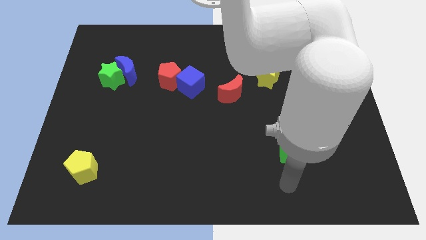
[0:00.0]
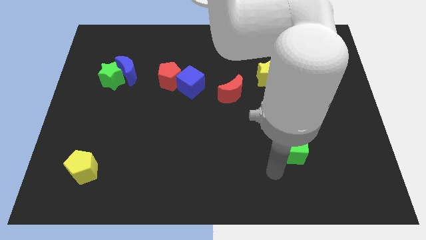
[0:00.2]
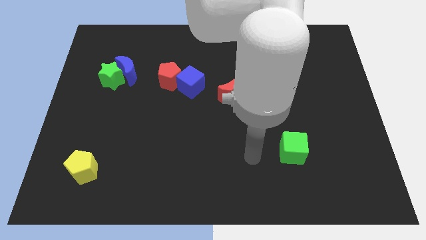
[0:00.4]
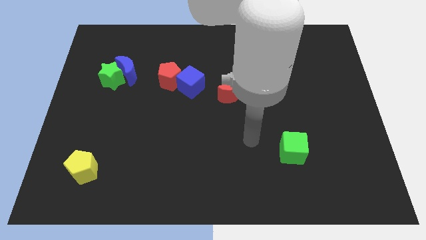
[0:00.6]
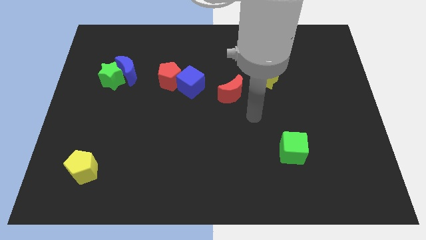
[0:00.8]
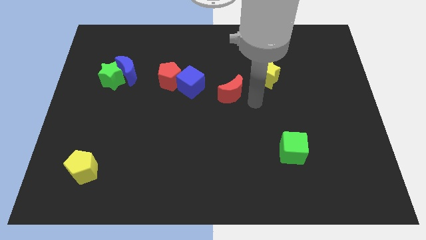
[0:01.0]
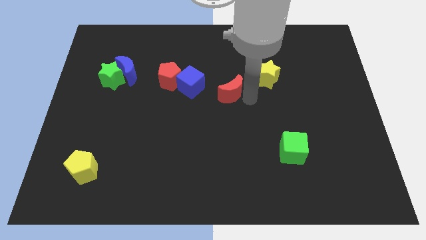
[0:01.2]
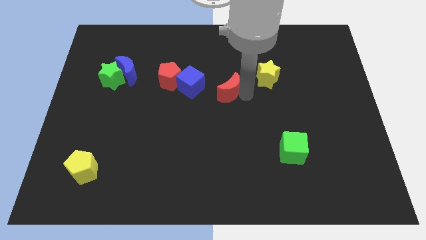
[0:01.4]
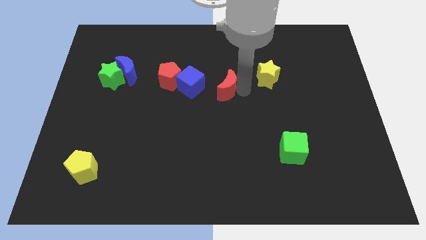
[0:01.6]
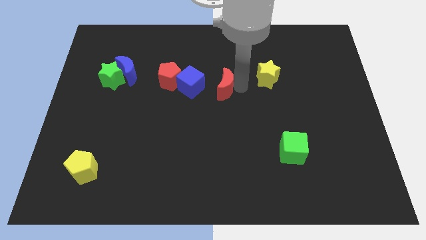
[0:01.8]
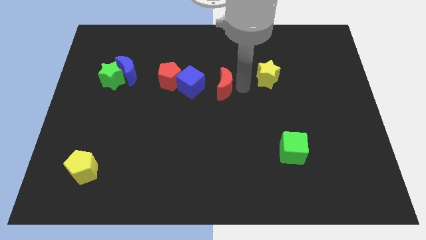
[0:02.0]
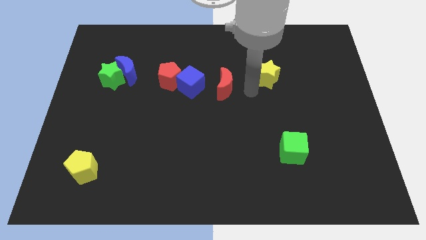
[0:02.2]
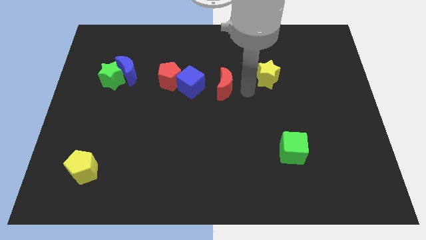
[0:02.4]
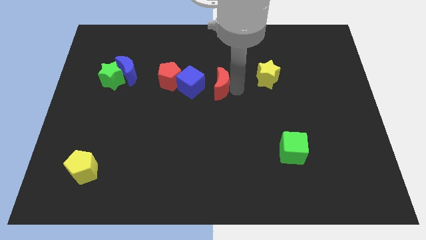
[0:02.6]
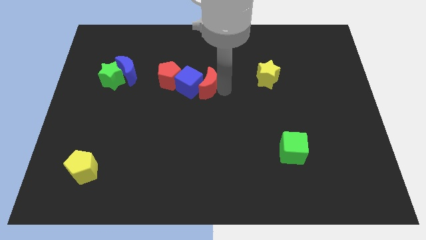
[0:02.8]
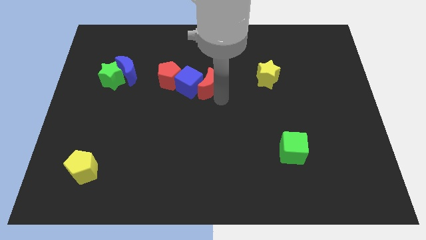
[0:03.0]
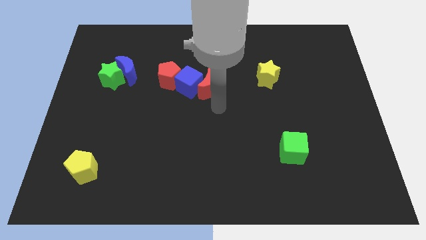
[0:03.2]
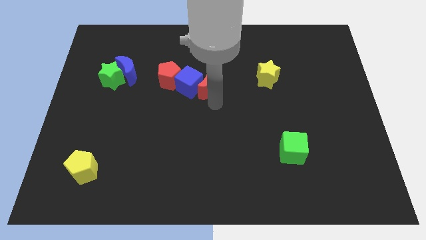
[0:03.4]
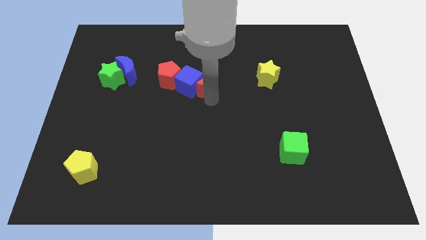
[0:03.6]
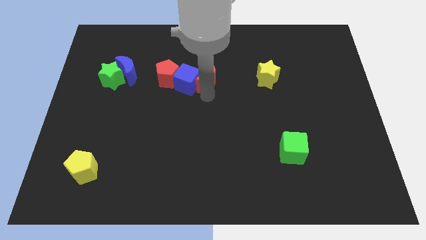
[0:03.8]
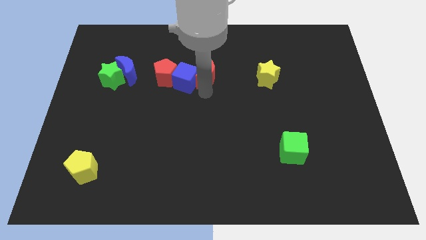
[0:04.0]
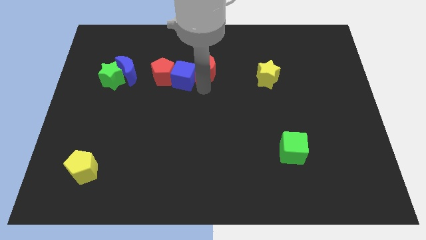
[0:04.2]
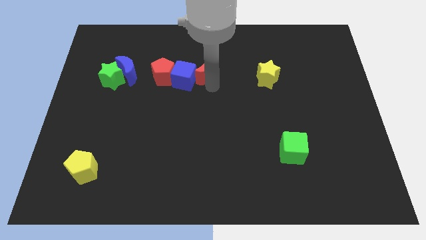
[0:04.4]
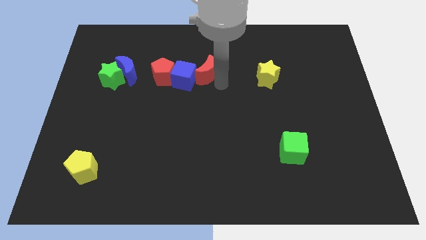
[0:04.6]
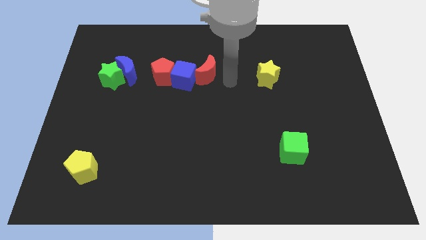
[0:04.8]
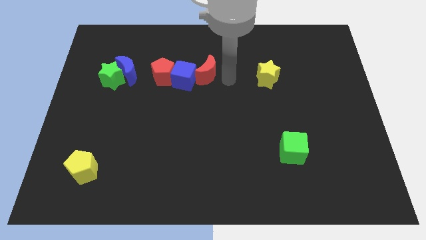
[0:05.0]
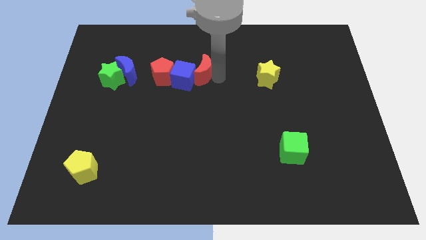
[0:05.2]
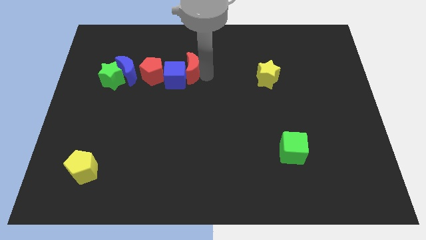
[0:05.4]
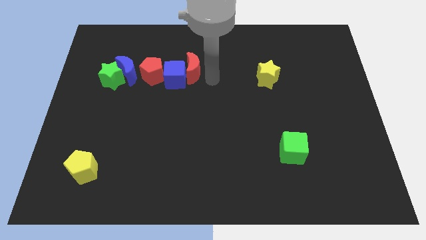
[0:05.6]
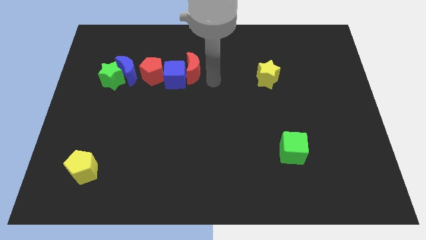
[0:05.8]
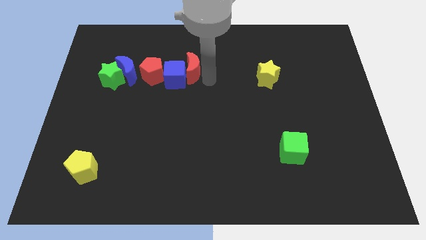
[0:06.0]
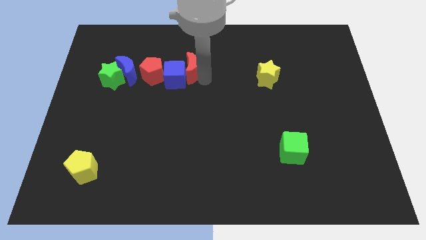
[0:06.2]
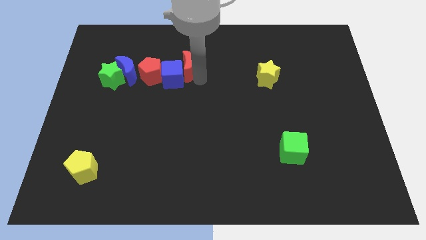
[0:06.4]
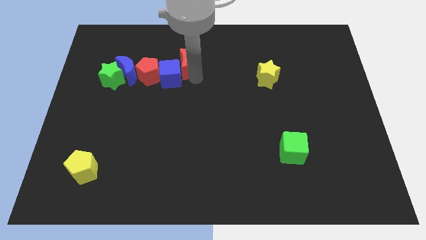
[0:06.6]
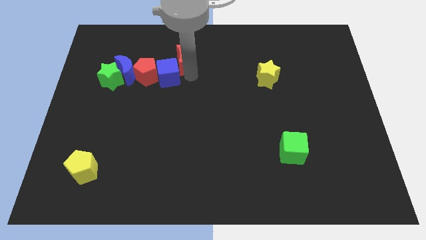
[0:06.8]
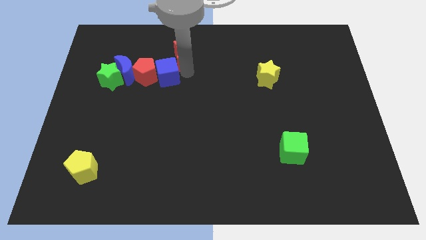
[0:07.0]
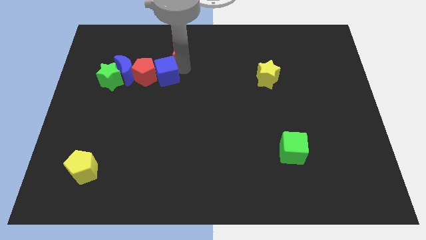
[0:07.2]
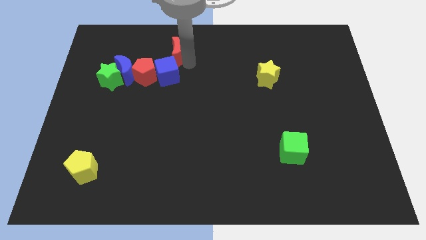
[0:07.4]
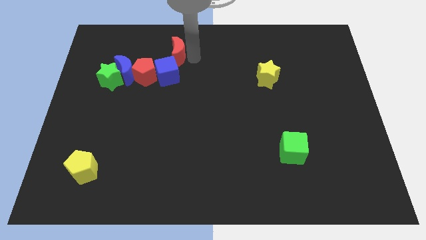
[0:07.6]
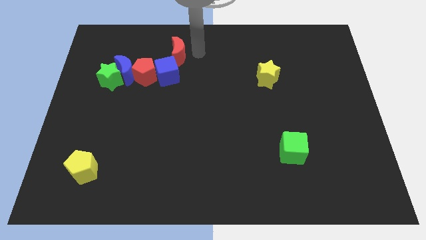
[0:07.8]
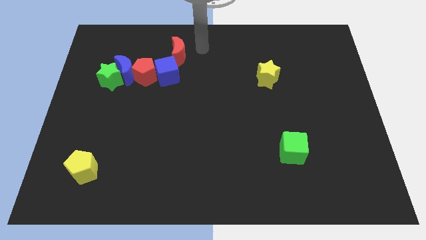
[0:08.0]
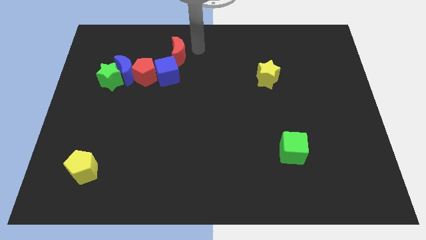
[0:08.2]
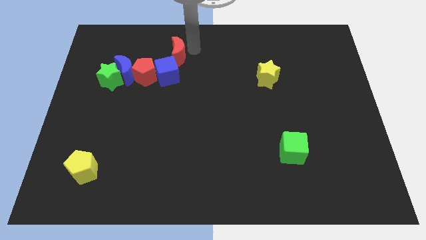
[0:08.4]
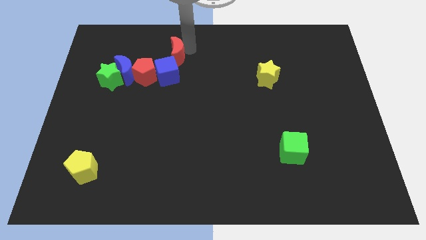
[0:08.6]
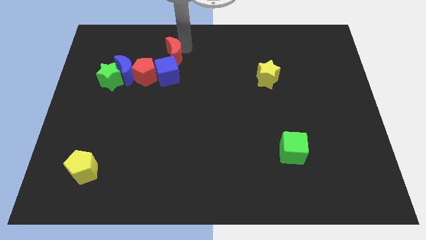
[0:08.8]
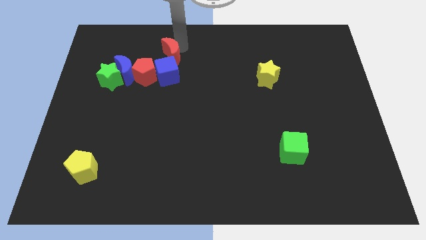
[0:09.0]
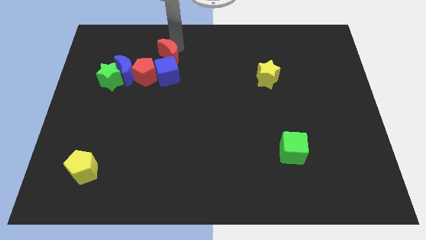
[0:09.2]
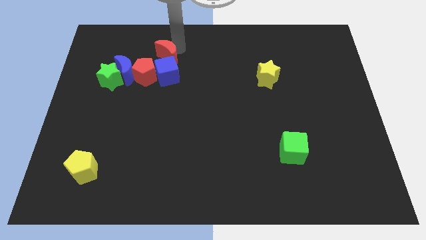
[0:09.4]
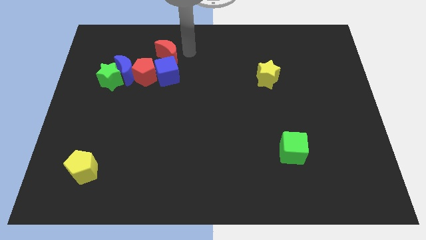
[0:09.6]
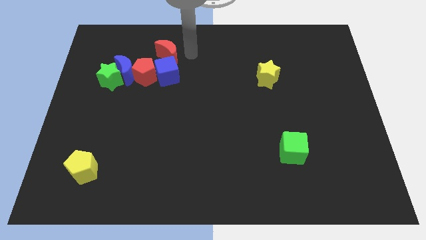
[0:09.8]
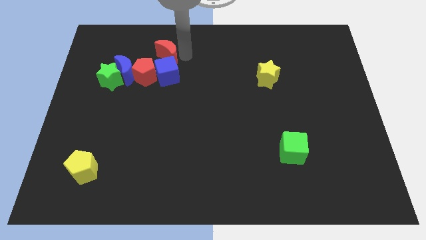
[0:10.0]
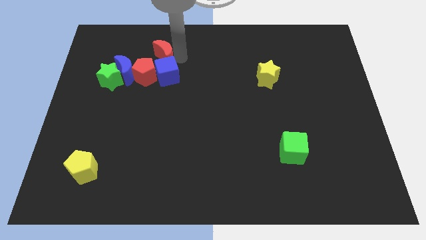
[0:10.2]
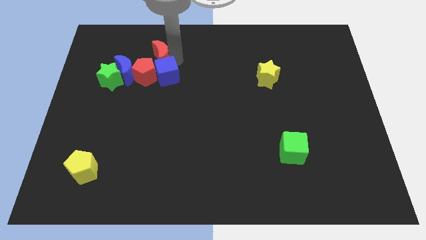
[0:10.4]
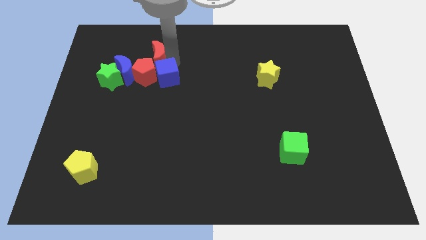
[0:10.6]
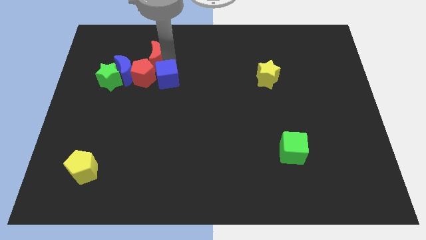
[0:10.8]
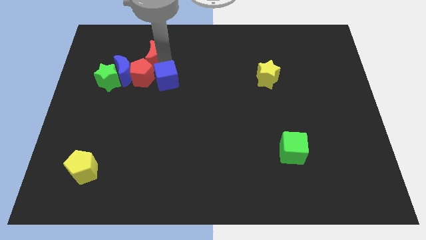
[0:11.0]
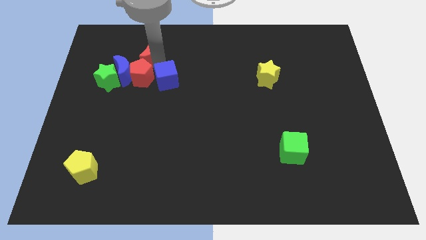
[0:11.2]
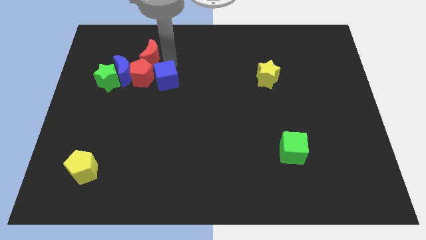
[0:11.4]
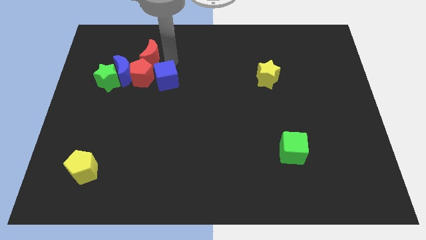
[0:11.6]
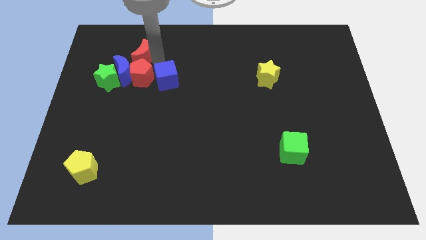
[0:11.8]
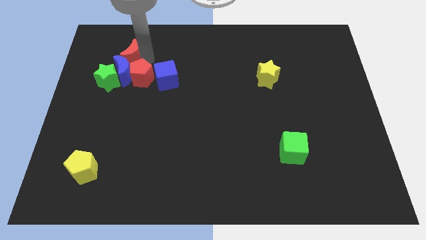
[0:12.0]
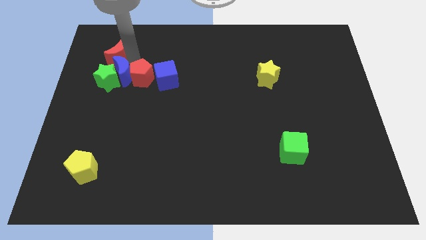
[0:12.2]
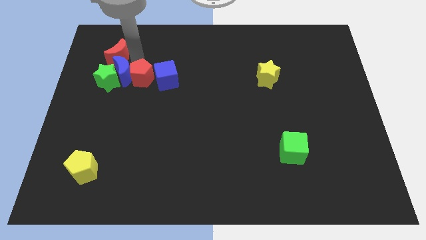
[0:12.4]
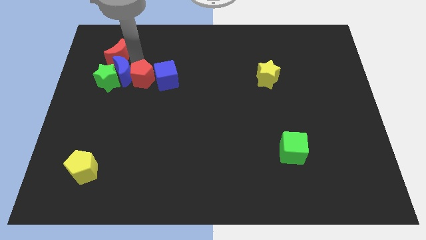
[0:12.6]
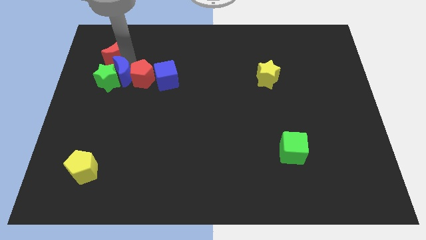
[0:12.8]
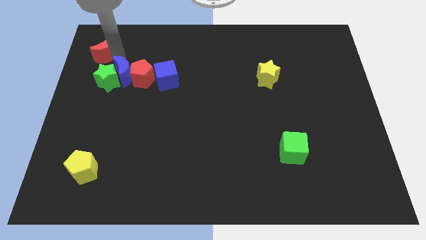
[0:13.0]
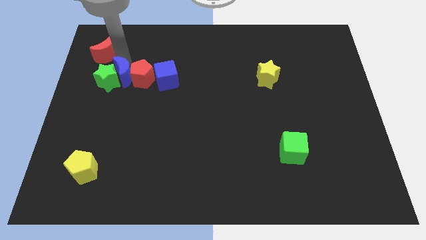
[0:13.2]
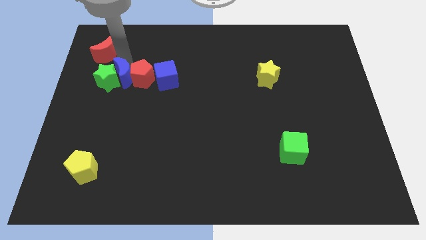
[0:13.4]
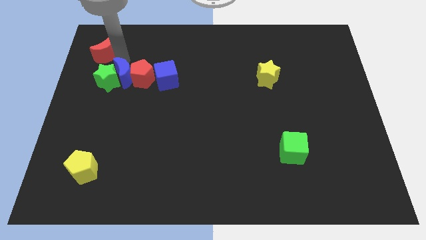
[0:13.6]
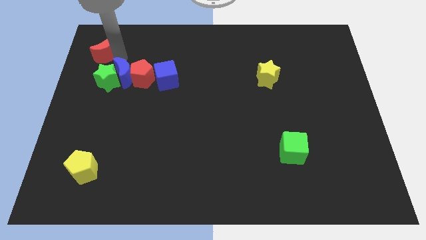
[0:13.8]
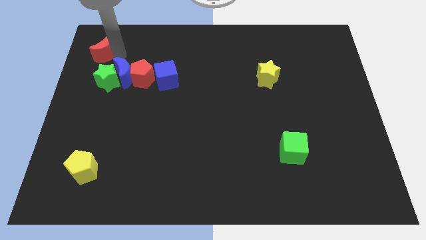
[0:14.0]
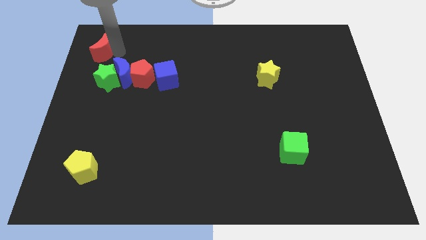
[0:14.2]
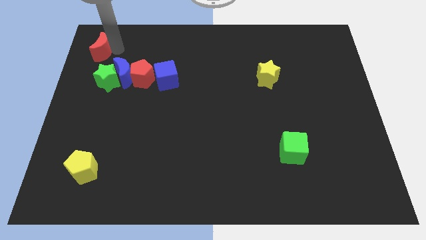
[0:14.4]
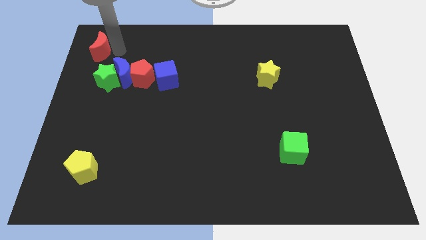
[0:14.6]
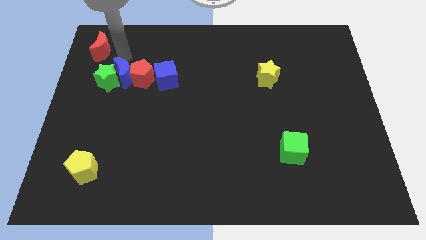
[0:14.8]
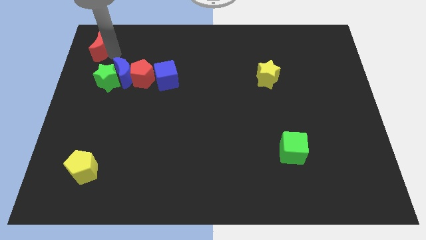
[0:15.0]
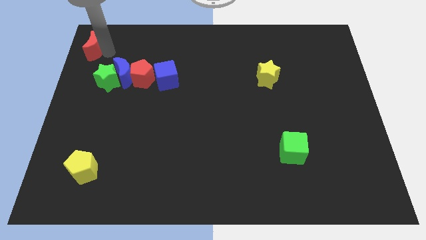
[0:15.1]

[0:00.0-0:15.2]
slide the red moon to the top left
